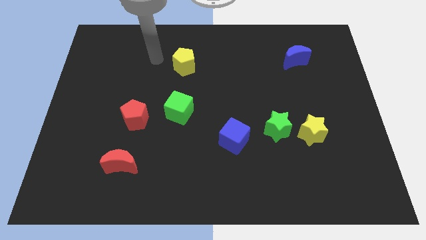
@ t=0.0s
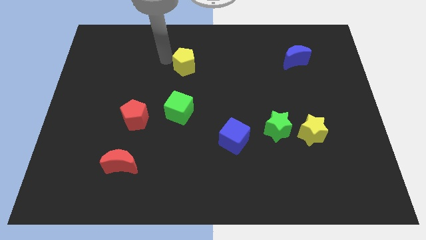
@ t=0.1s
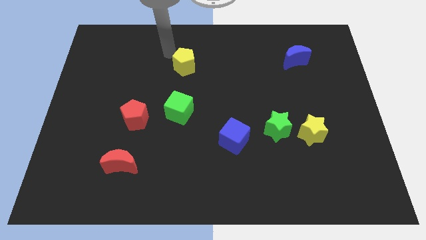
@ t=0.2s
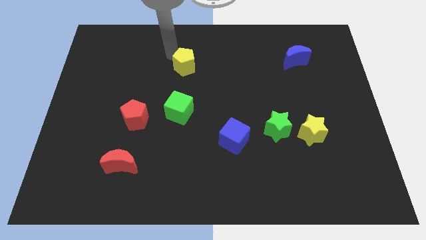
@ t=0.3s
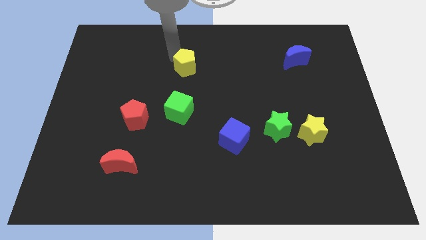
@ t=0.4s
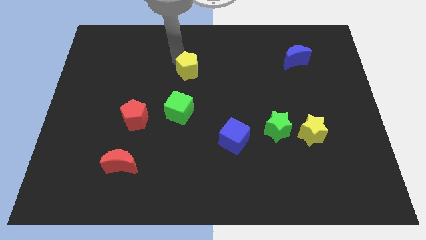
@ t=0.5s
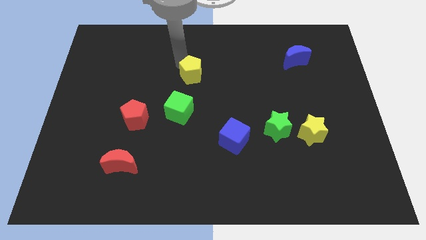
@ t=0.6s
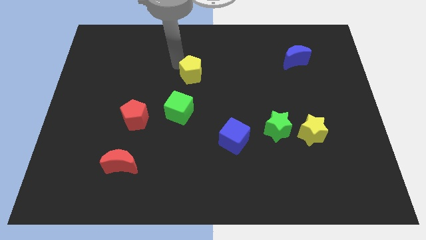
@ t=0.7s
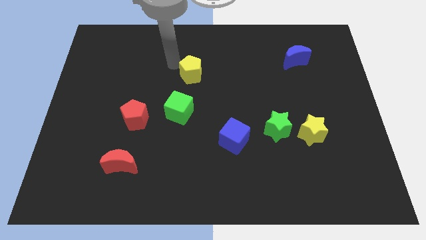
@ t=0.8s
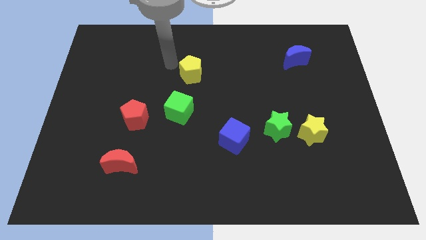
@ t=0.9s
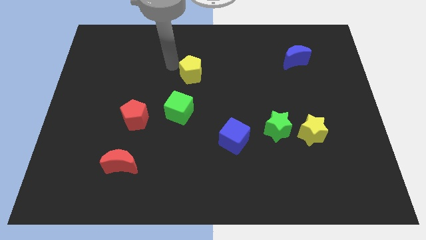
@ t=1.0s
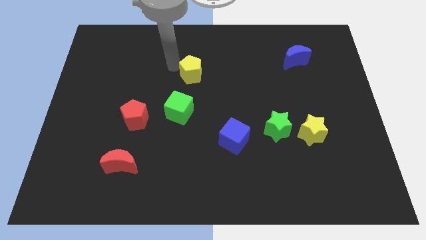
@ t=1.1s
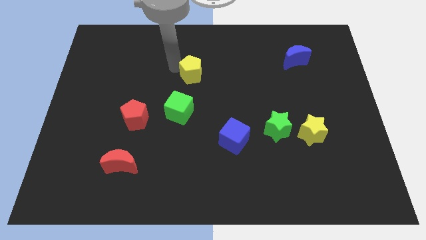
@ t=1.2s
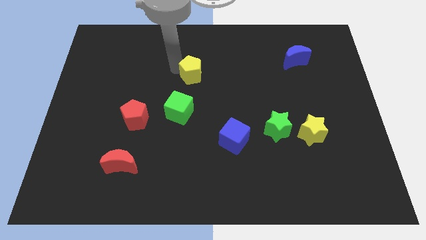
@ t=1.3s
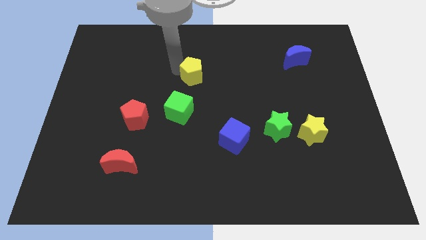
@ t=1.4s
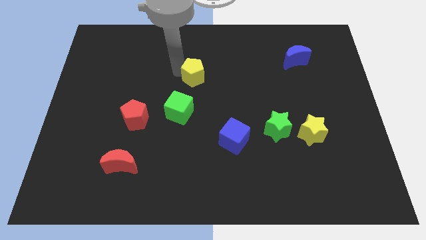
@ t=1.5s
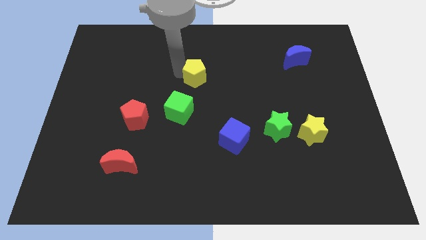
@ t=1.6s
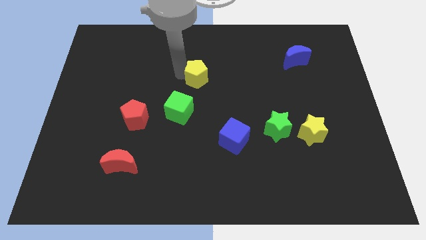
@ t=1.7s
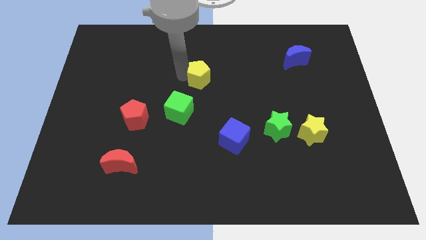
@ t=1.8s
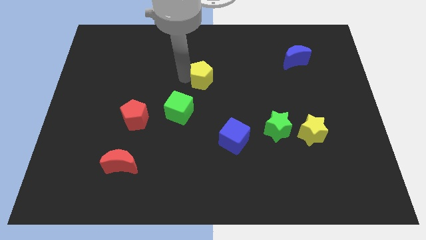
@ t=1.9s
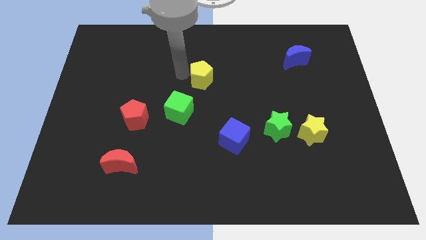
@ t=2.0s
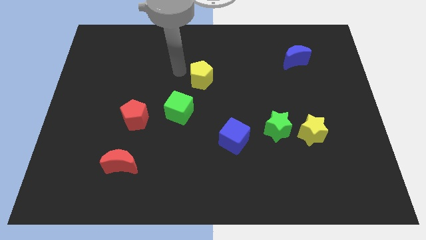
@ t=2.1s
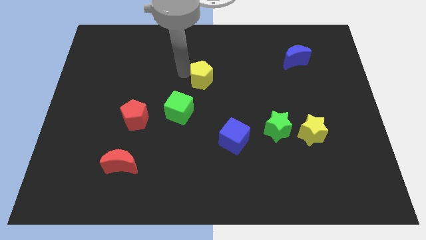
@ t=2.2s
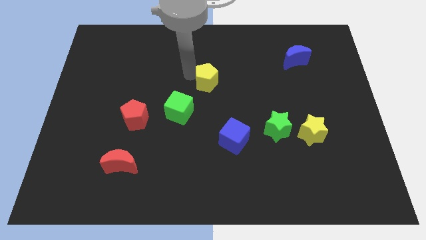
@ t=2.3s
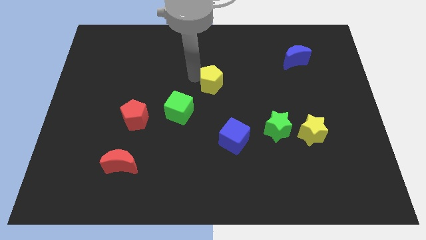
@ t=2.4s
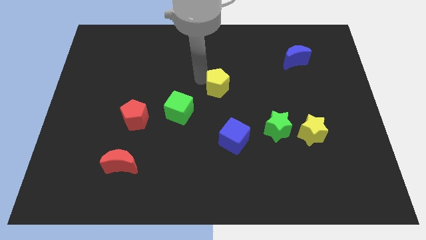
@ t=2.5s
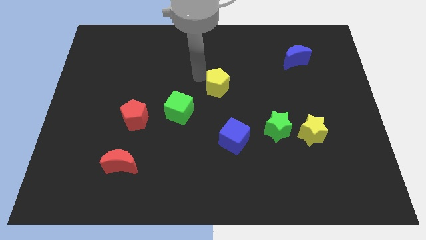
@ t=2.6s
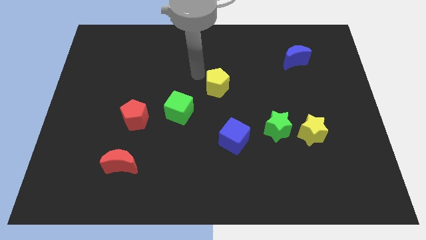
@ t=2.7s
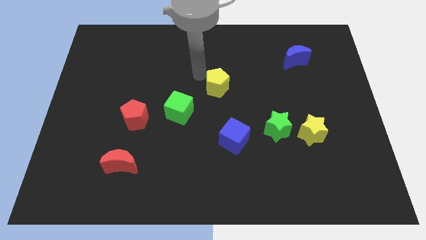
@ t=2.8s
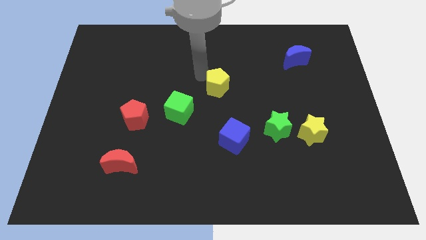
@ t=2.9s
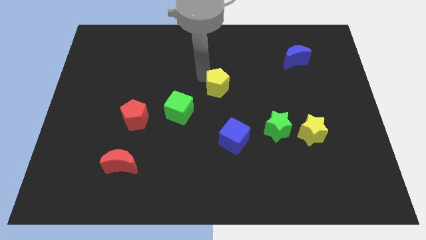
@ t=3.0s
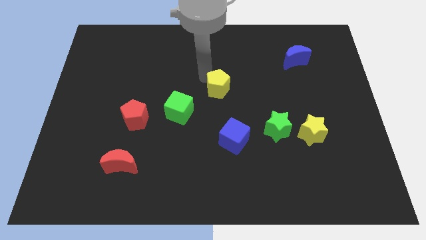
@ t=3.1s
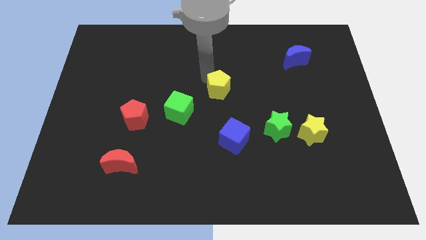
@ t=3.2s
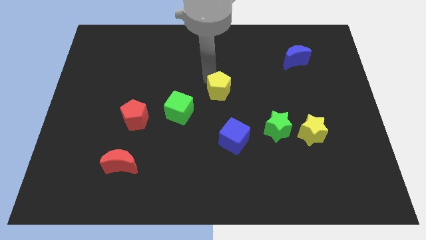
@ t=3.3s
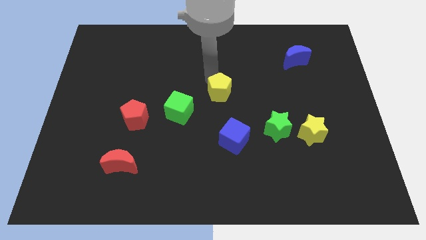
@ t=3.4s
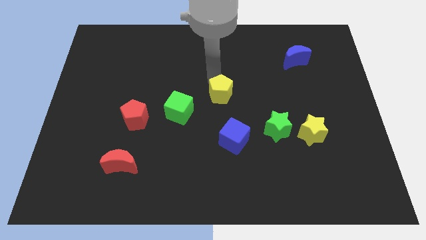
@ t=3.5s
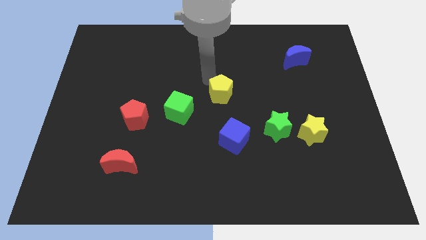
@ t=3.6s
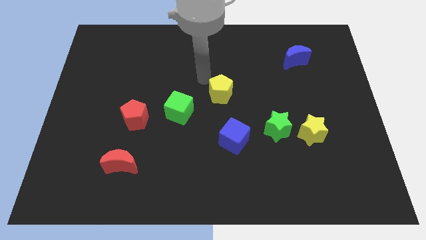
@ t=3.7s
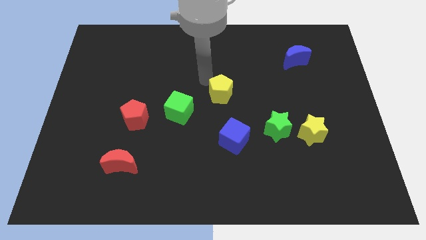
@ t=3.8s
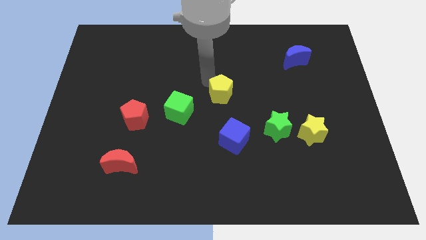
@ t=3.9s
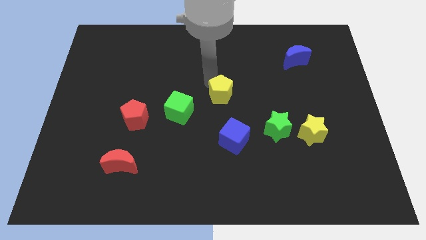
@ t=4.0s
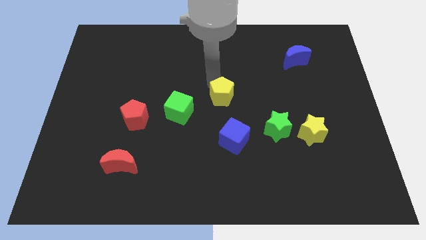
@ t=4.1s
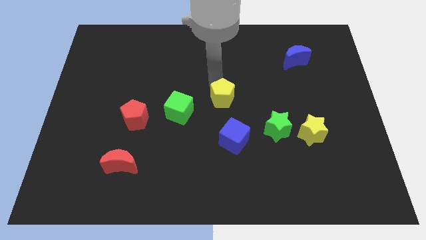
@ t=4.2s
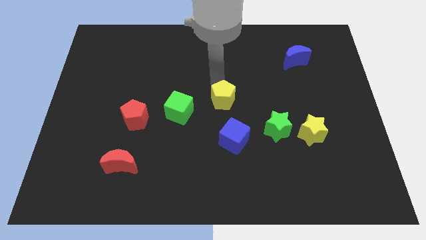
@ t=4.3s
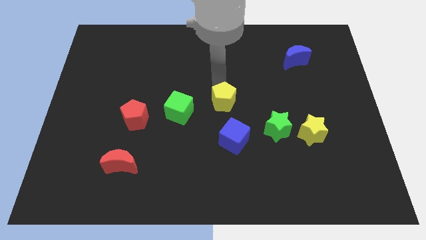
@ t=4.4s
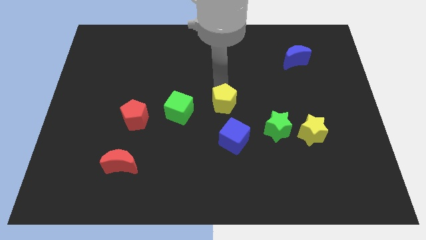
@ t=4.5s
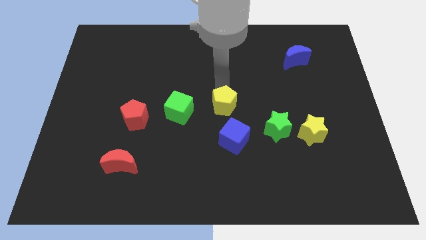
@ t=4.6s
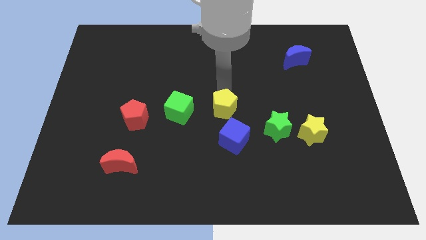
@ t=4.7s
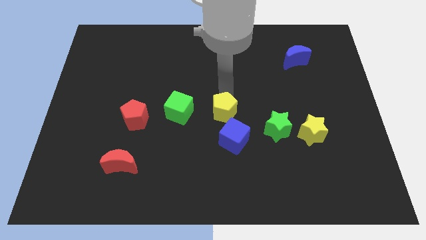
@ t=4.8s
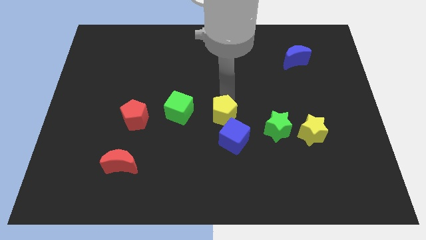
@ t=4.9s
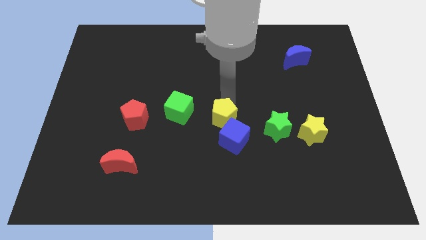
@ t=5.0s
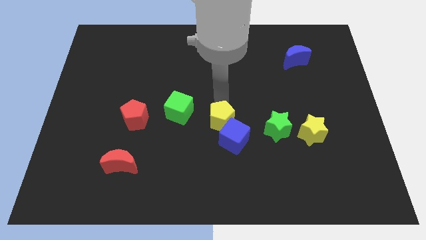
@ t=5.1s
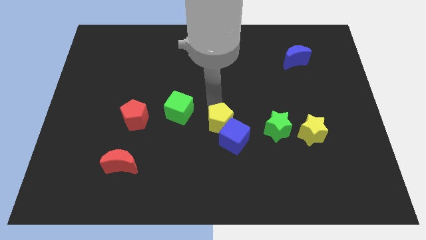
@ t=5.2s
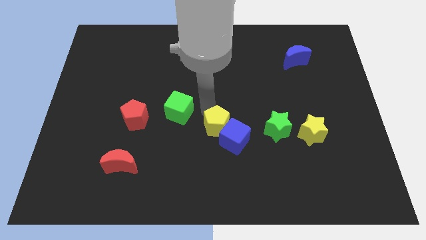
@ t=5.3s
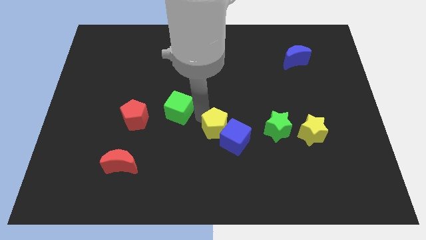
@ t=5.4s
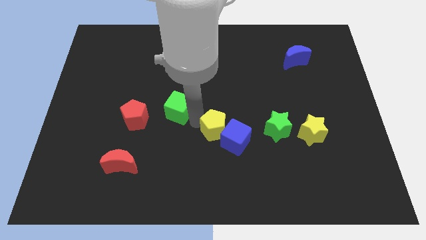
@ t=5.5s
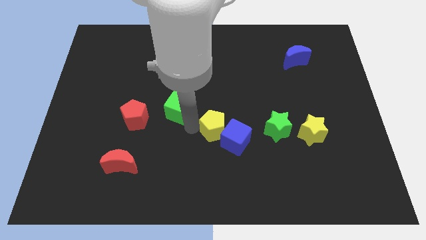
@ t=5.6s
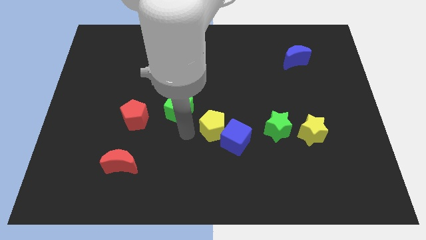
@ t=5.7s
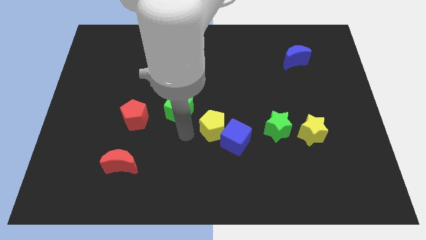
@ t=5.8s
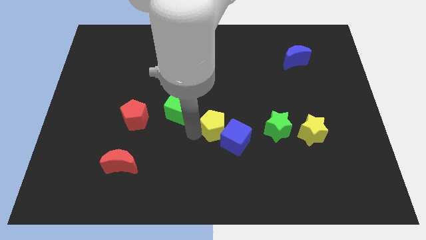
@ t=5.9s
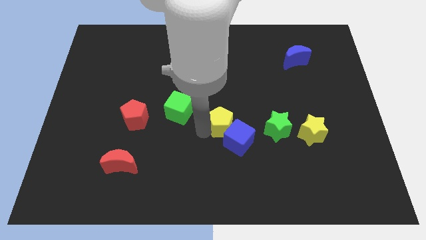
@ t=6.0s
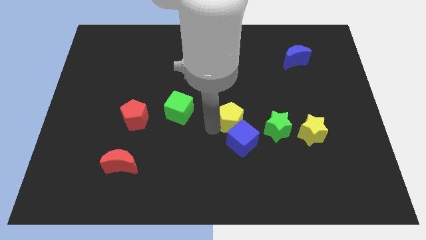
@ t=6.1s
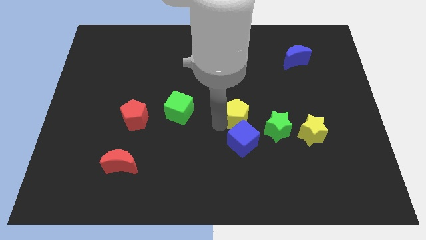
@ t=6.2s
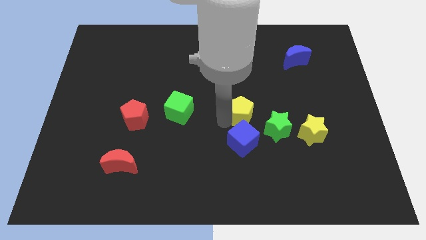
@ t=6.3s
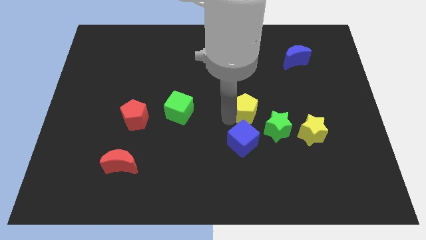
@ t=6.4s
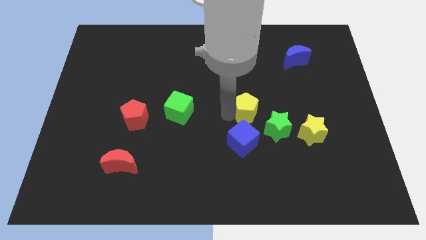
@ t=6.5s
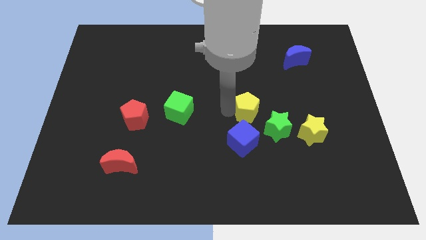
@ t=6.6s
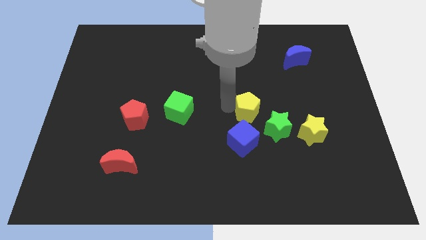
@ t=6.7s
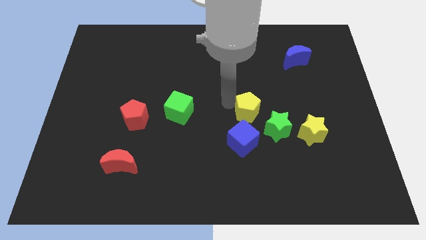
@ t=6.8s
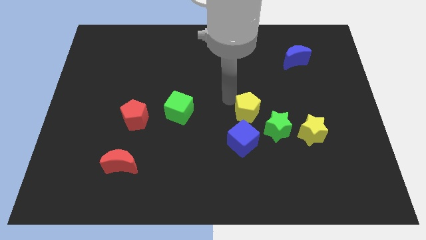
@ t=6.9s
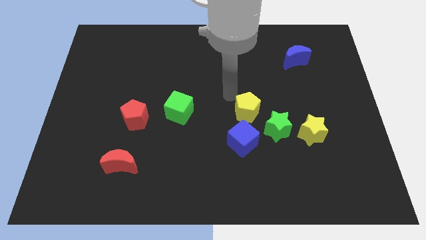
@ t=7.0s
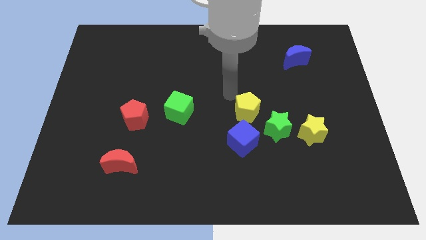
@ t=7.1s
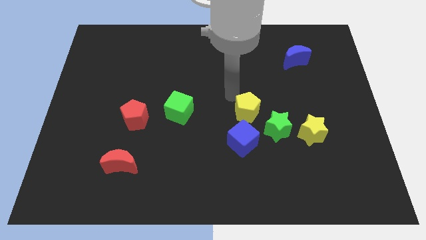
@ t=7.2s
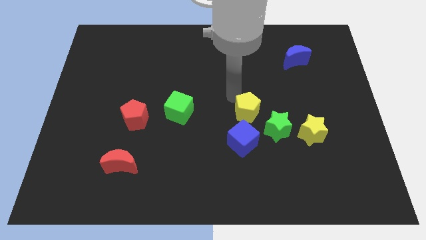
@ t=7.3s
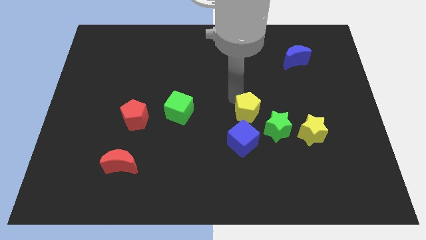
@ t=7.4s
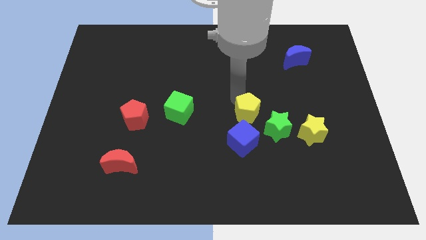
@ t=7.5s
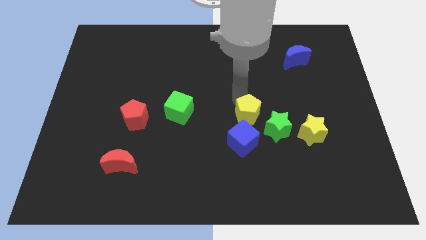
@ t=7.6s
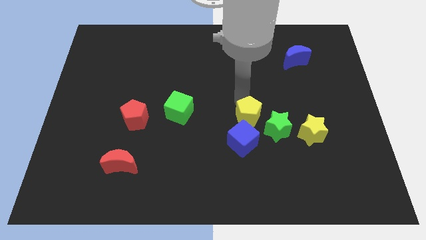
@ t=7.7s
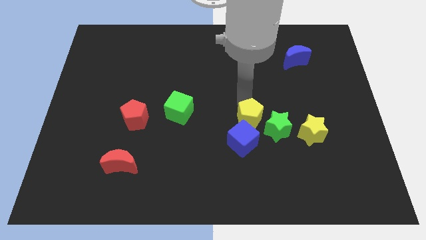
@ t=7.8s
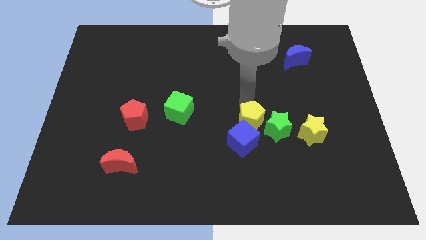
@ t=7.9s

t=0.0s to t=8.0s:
put the yellow pentagon next to the green star
